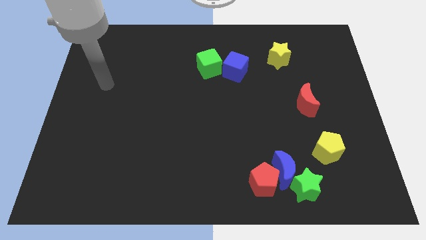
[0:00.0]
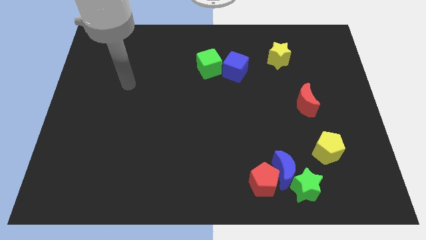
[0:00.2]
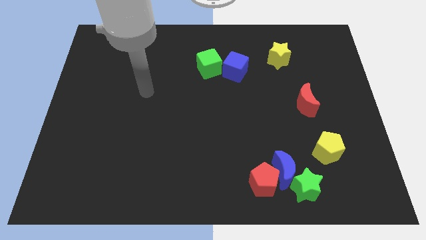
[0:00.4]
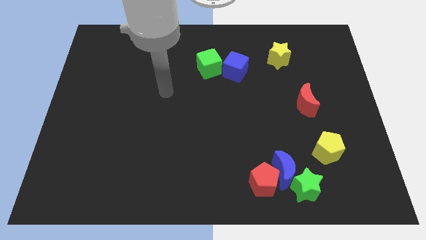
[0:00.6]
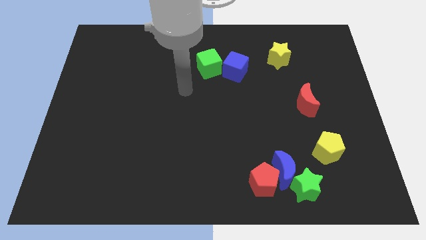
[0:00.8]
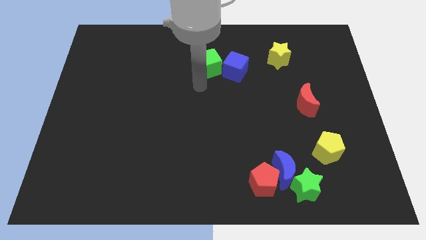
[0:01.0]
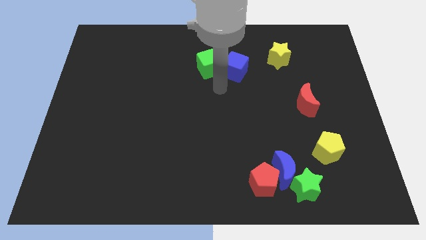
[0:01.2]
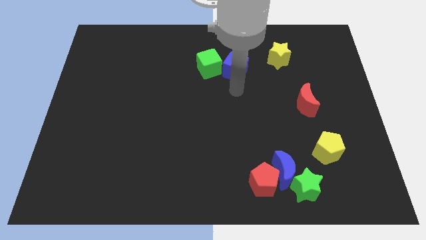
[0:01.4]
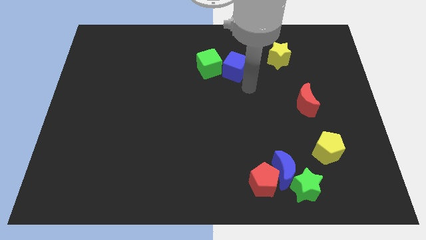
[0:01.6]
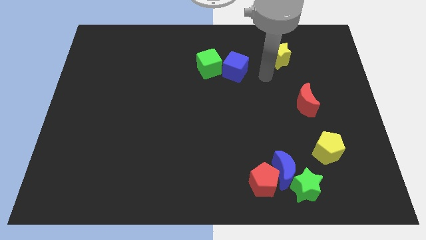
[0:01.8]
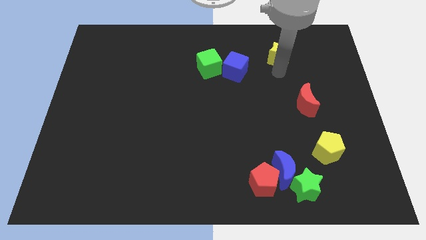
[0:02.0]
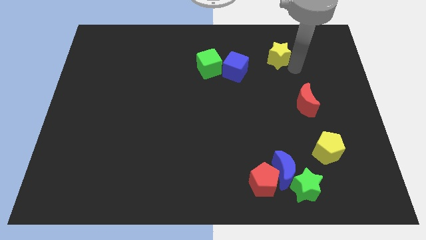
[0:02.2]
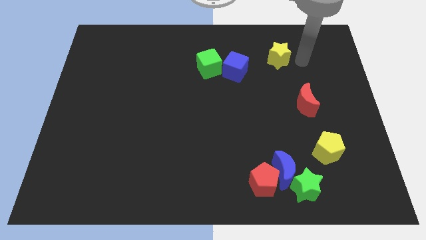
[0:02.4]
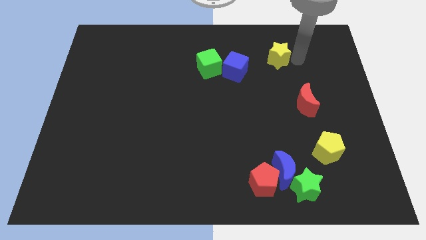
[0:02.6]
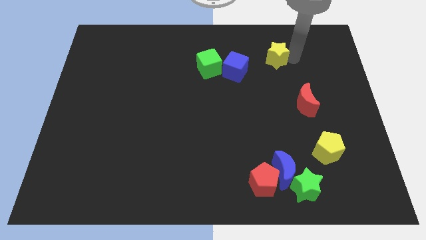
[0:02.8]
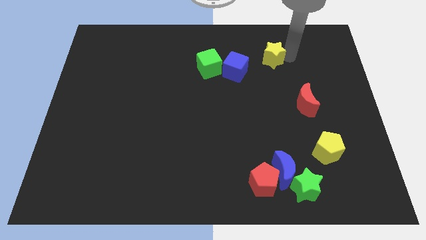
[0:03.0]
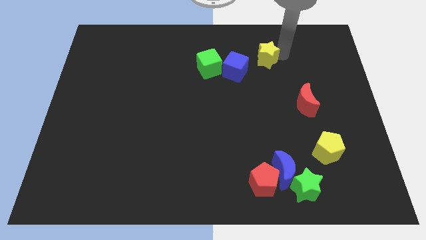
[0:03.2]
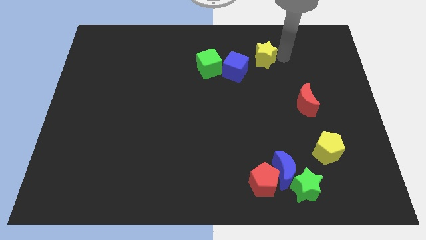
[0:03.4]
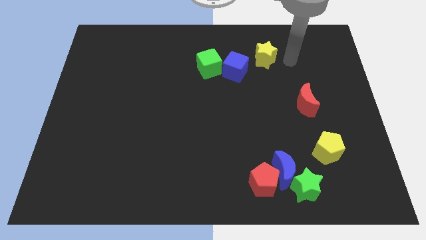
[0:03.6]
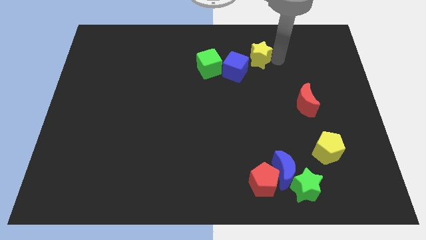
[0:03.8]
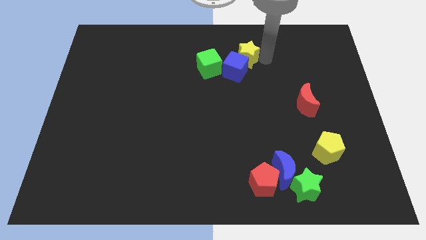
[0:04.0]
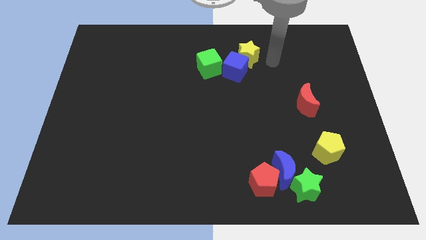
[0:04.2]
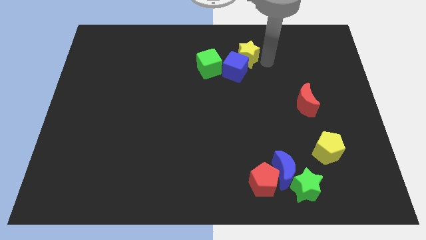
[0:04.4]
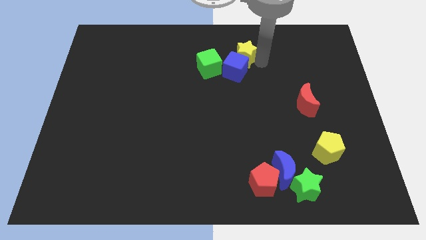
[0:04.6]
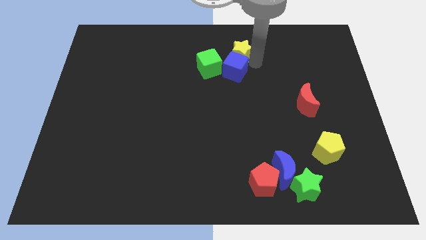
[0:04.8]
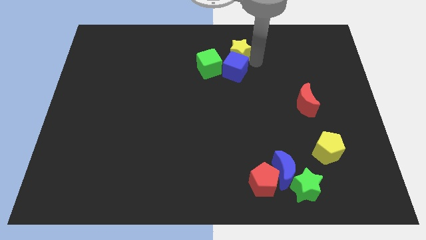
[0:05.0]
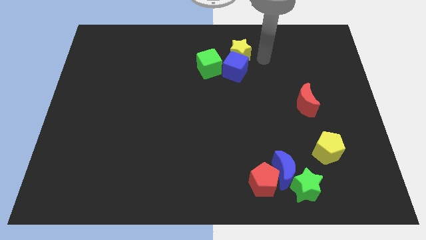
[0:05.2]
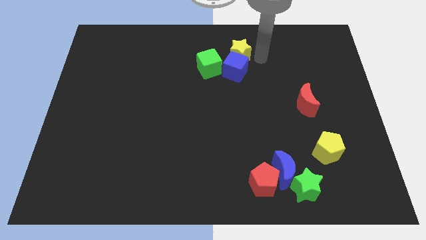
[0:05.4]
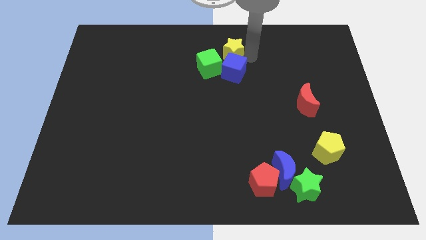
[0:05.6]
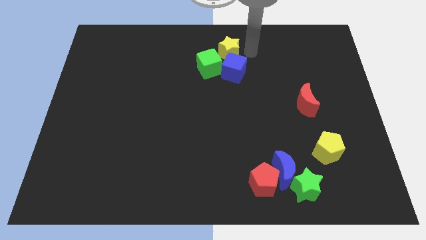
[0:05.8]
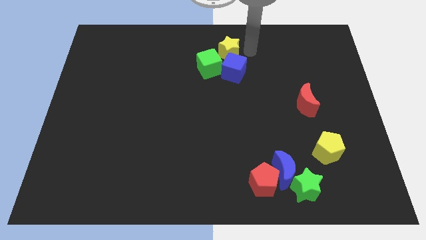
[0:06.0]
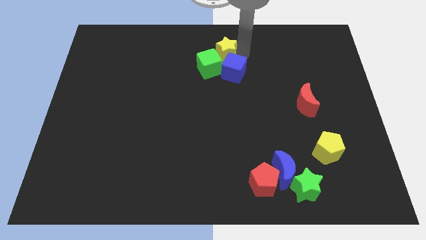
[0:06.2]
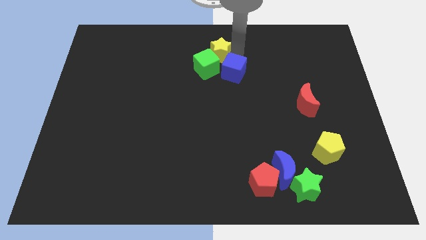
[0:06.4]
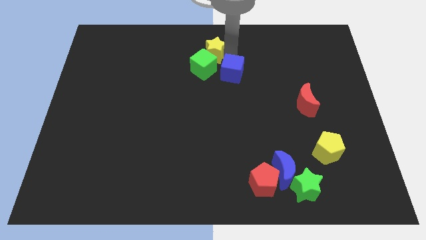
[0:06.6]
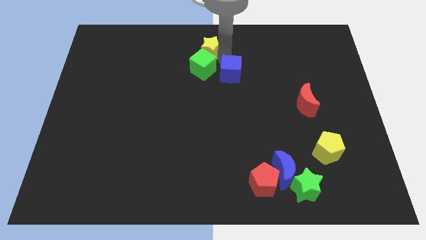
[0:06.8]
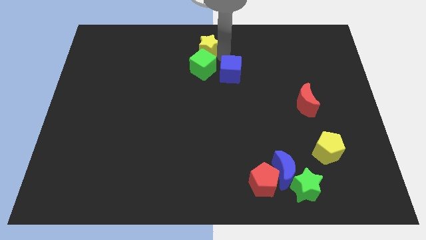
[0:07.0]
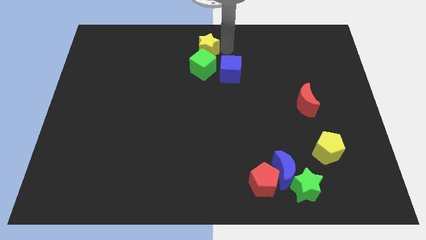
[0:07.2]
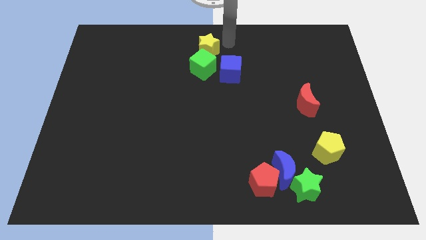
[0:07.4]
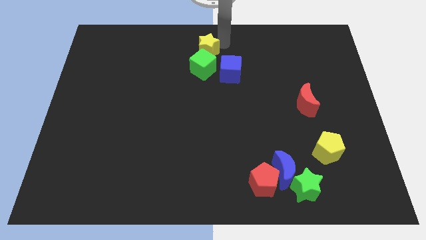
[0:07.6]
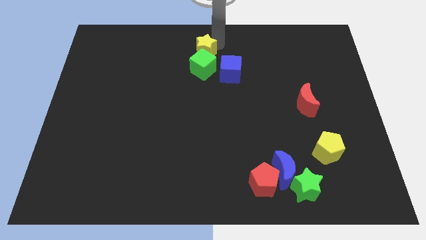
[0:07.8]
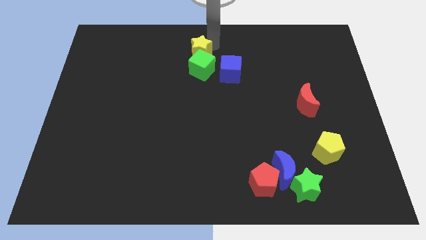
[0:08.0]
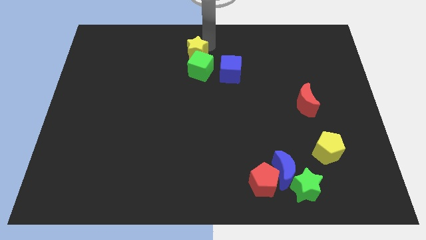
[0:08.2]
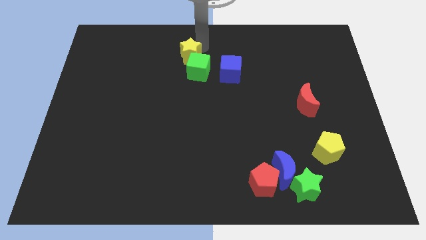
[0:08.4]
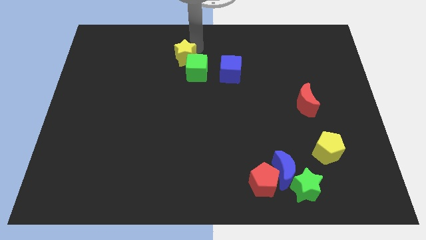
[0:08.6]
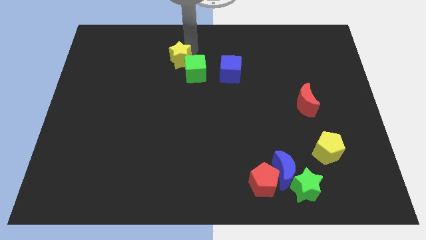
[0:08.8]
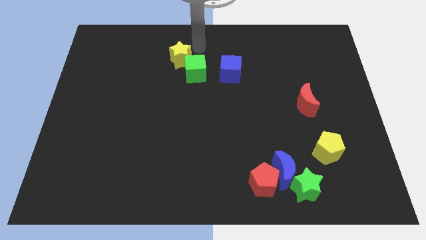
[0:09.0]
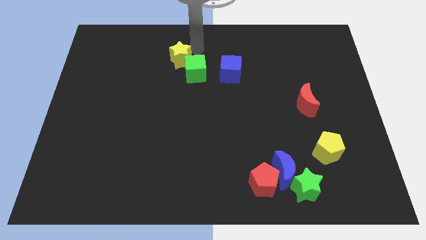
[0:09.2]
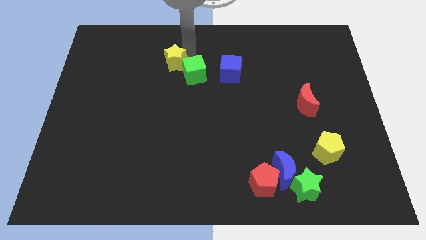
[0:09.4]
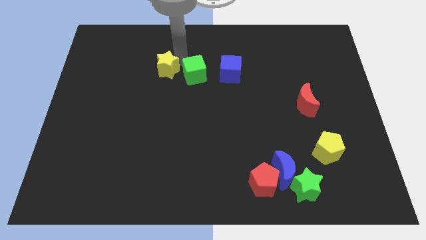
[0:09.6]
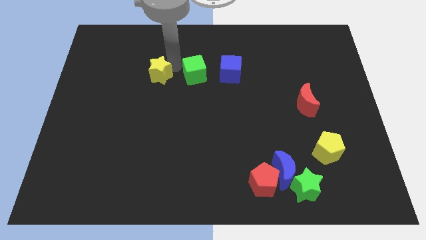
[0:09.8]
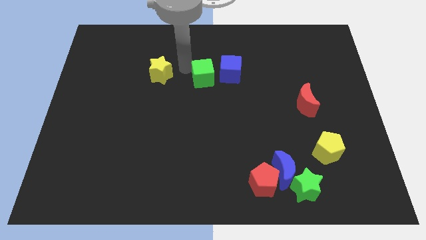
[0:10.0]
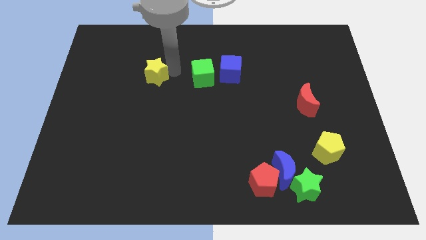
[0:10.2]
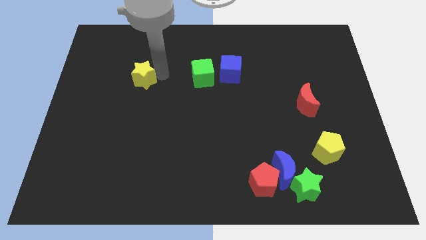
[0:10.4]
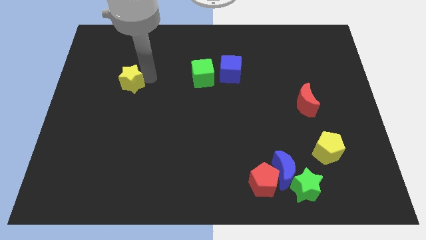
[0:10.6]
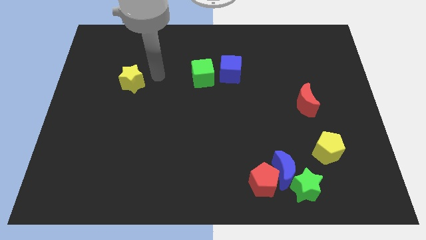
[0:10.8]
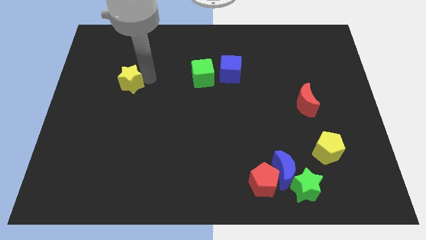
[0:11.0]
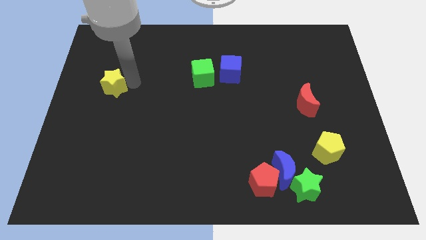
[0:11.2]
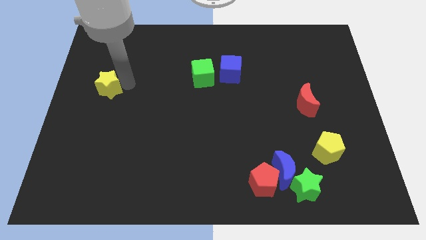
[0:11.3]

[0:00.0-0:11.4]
move the yellow star to the left side

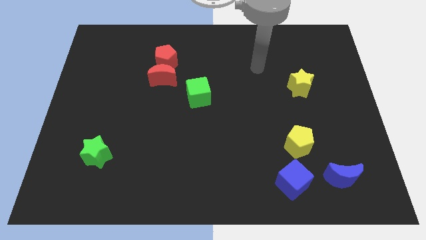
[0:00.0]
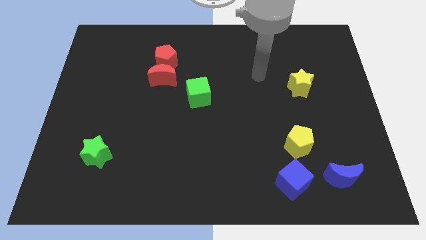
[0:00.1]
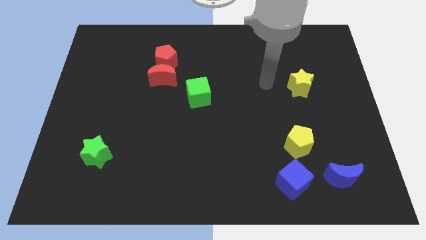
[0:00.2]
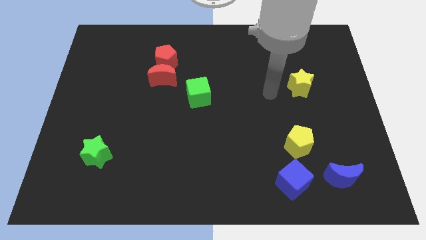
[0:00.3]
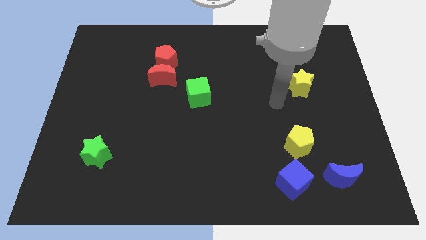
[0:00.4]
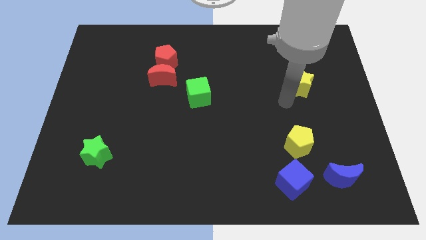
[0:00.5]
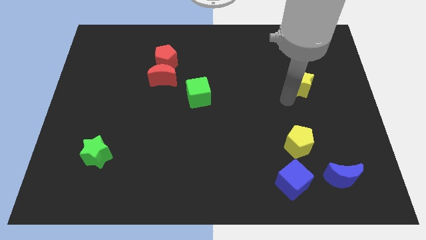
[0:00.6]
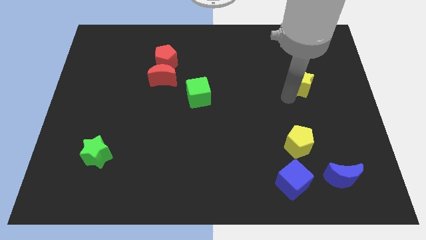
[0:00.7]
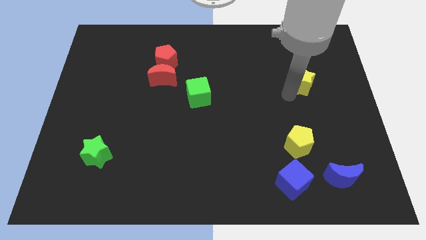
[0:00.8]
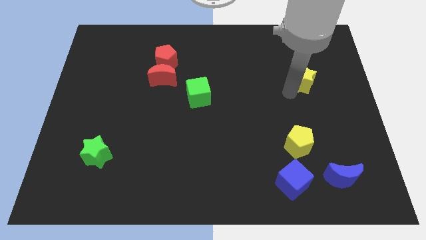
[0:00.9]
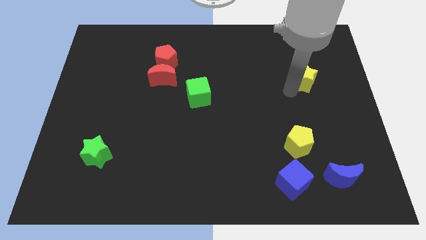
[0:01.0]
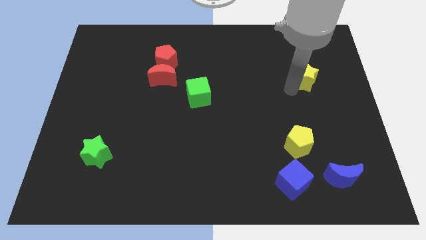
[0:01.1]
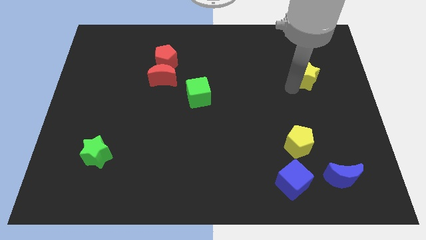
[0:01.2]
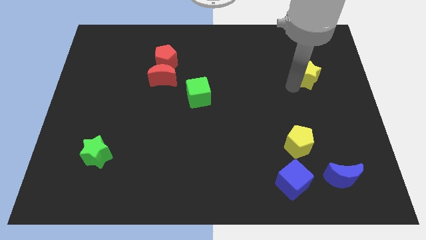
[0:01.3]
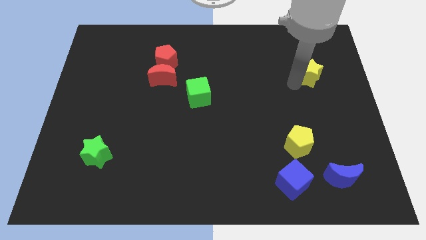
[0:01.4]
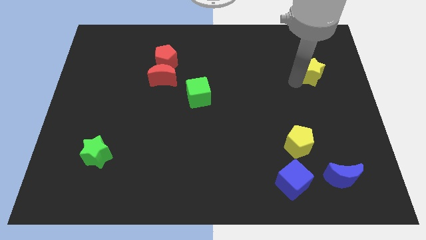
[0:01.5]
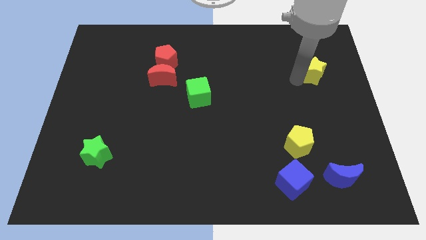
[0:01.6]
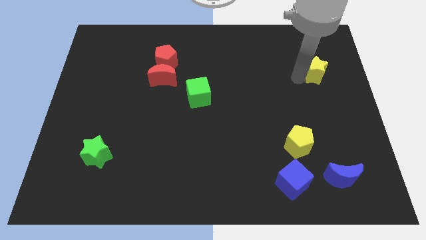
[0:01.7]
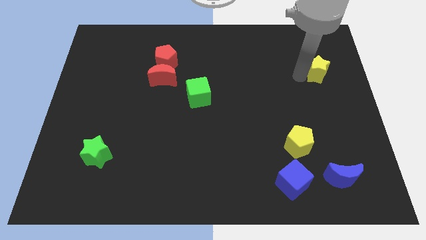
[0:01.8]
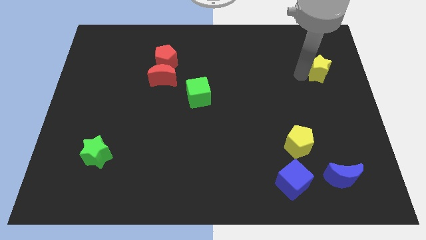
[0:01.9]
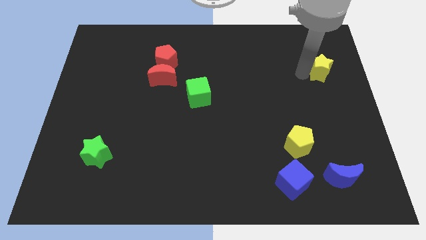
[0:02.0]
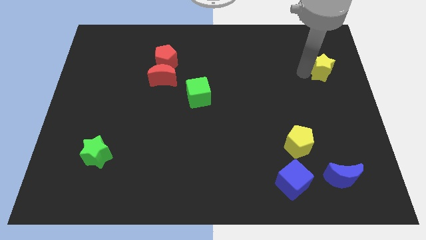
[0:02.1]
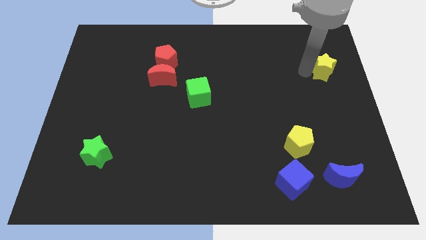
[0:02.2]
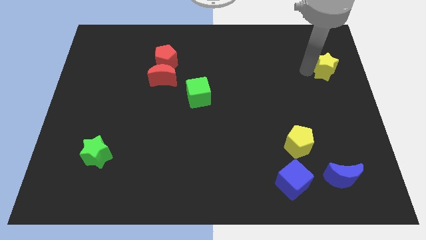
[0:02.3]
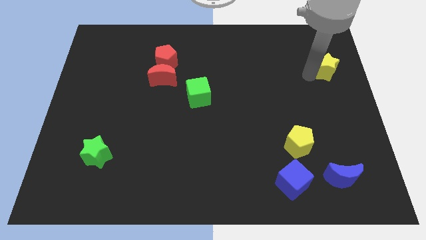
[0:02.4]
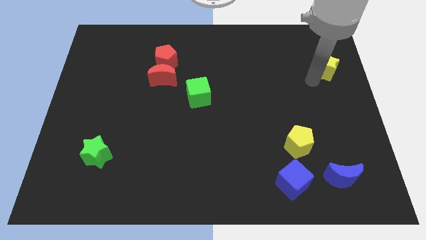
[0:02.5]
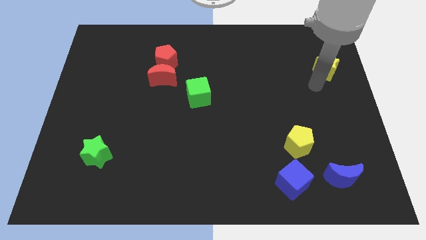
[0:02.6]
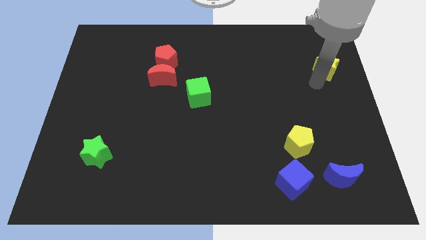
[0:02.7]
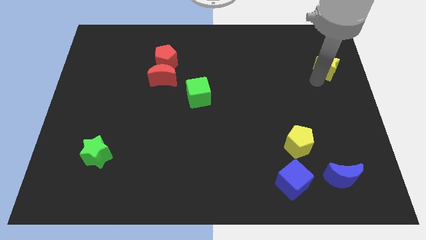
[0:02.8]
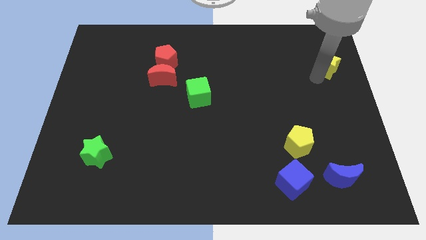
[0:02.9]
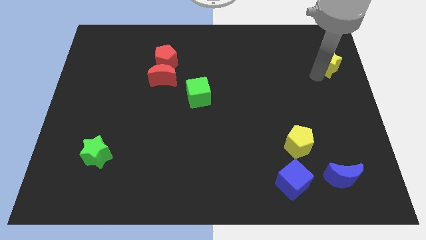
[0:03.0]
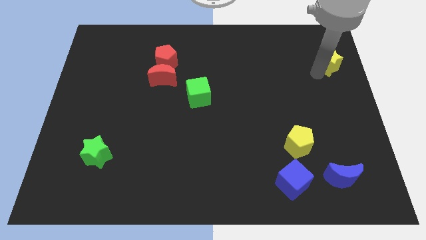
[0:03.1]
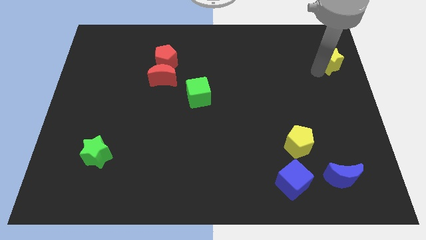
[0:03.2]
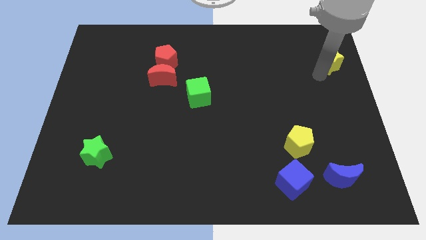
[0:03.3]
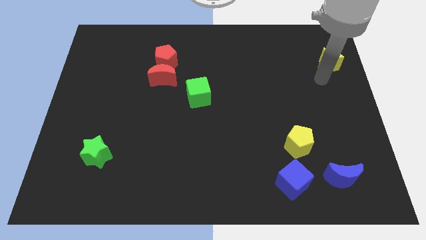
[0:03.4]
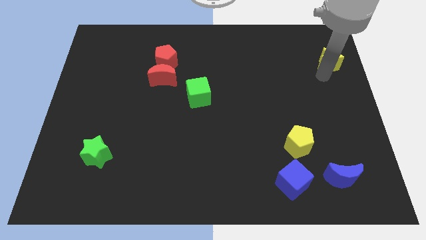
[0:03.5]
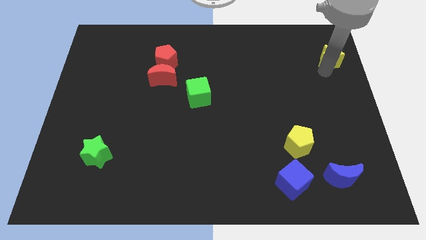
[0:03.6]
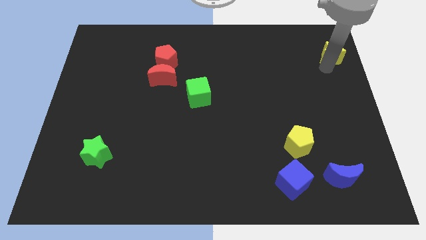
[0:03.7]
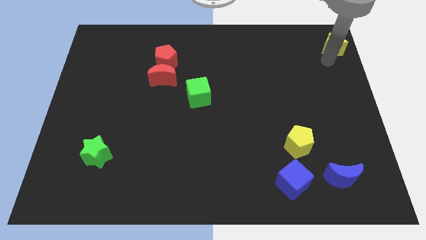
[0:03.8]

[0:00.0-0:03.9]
put the yellow star to the upper right corner
